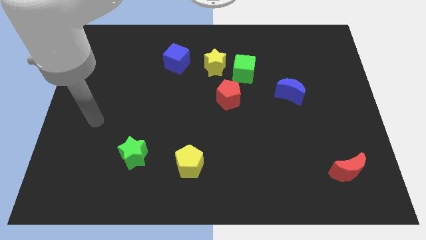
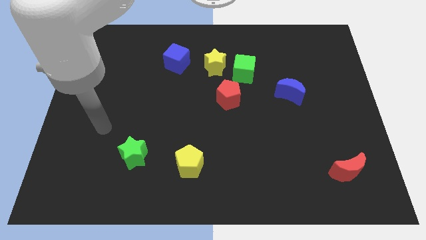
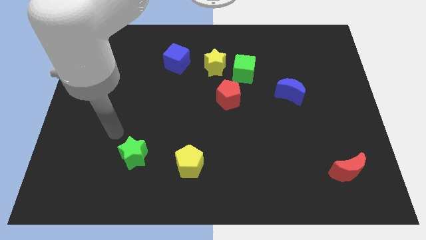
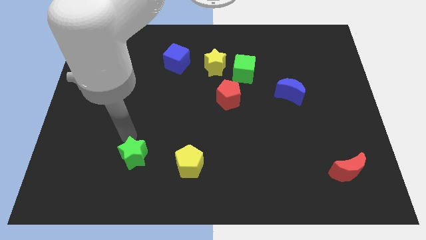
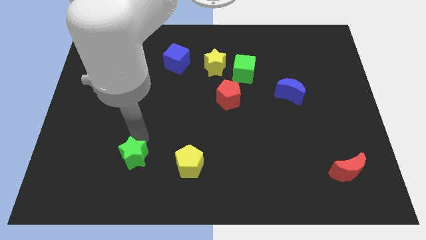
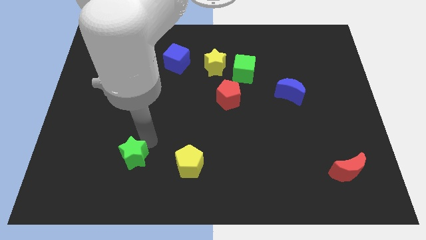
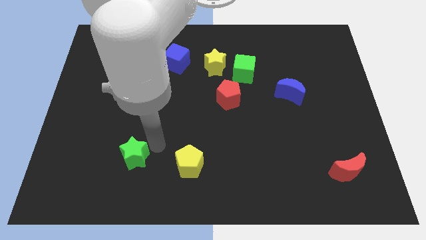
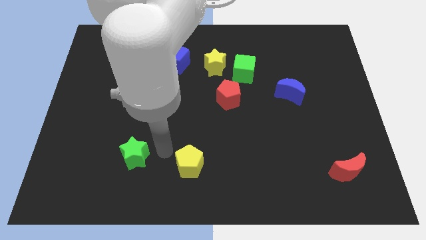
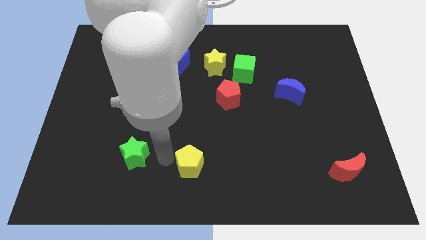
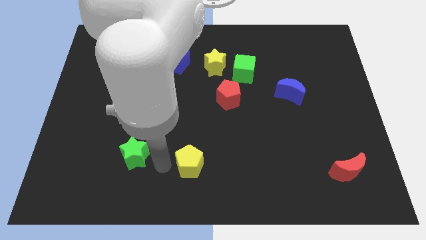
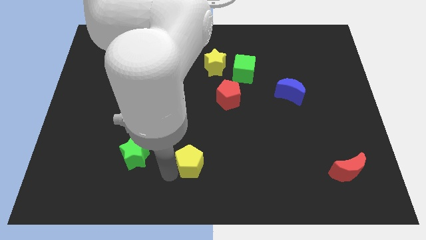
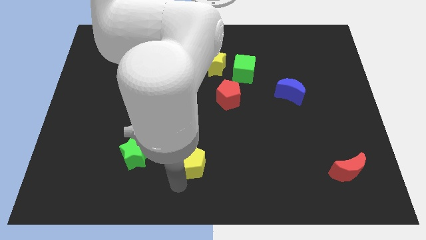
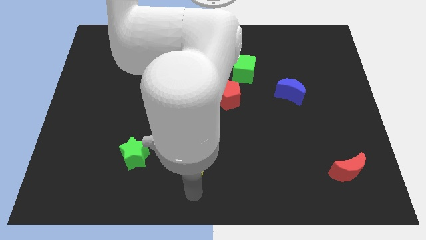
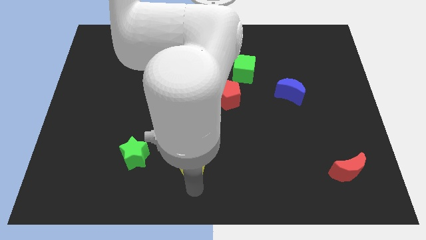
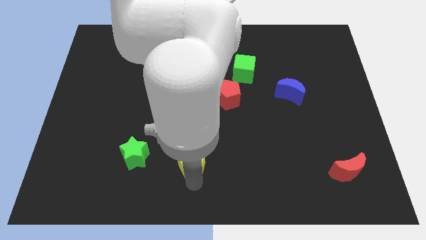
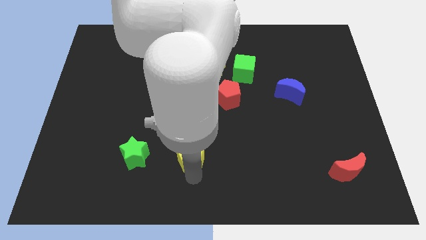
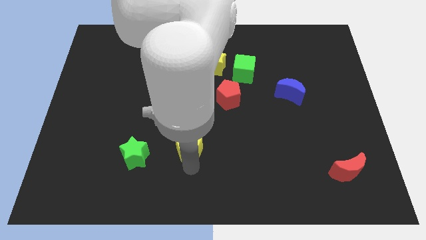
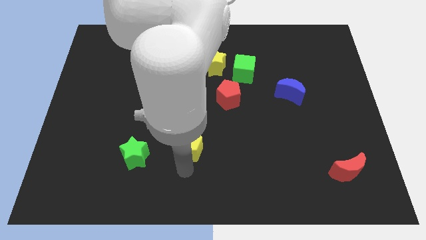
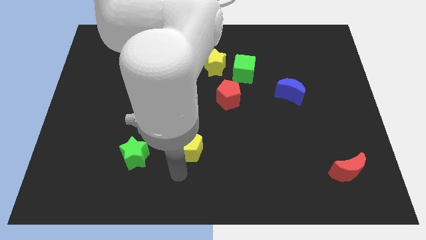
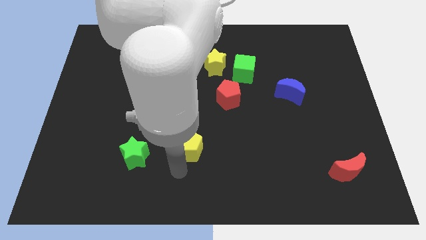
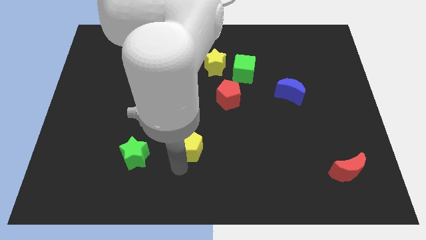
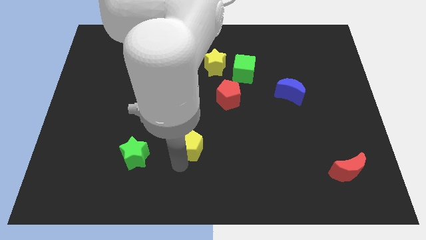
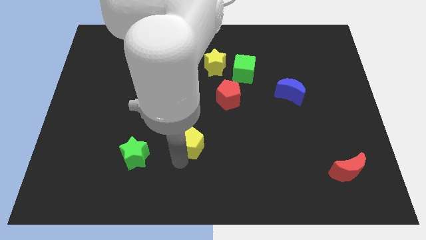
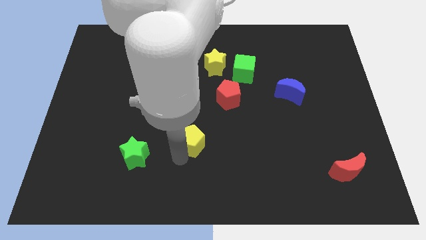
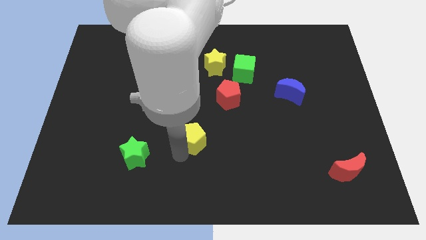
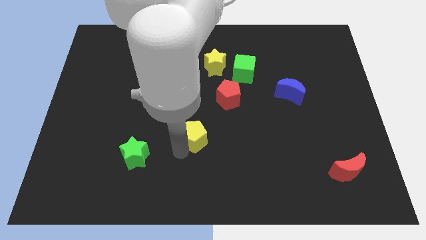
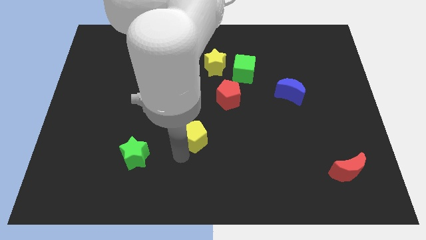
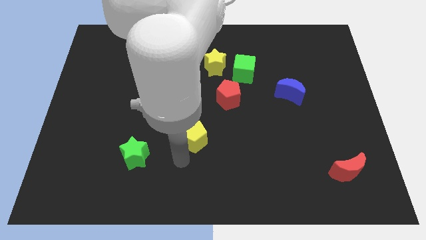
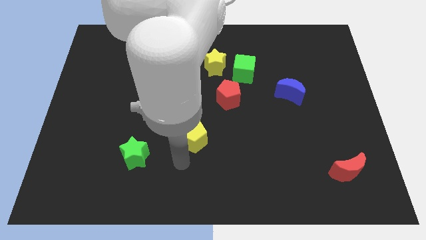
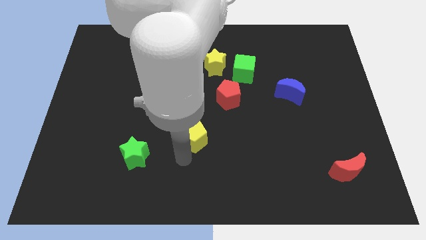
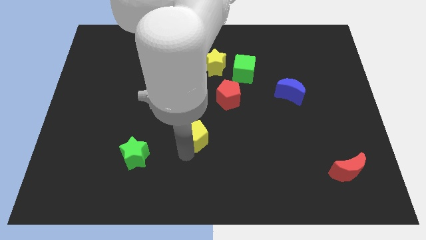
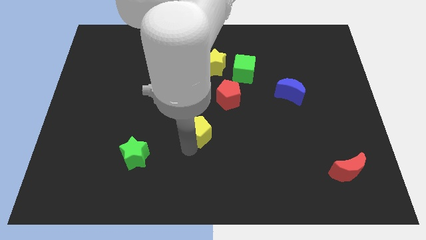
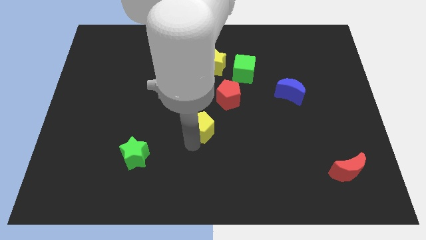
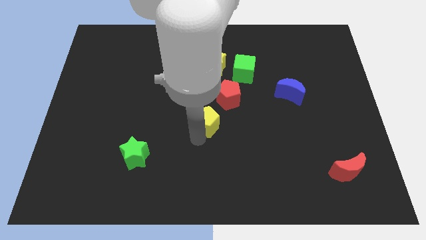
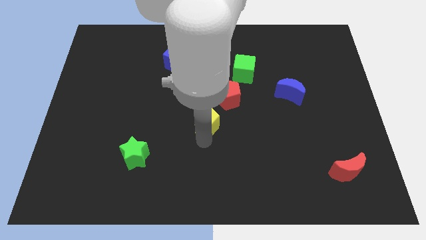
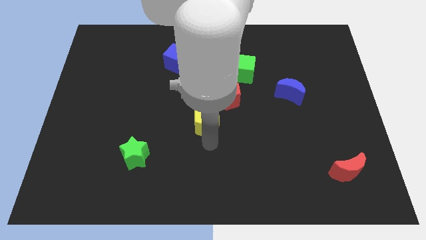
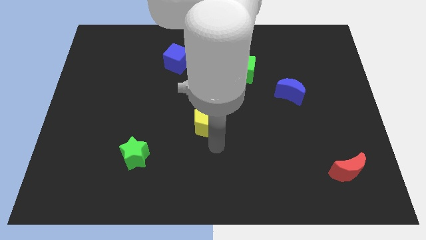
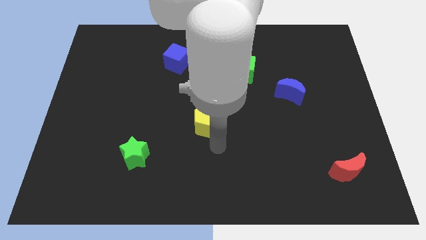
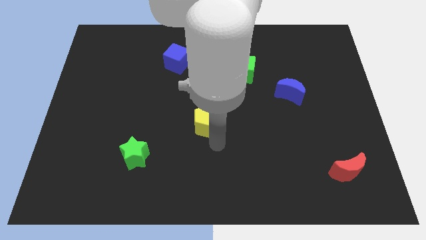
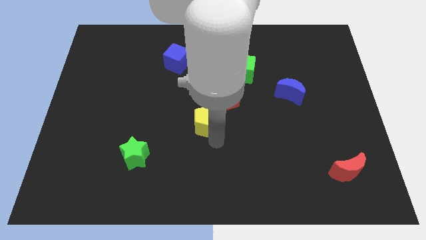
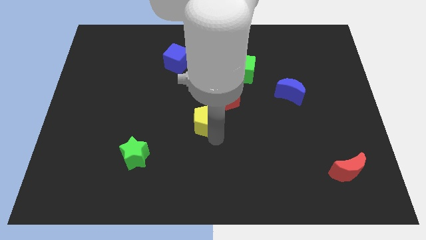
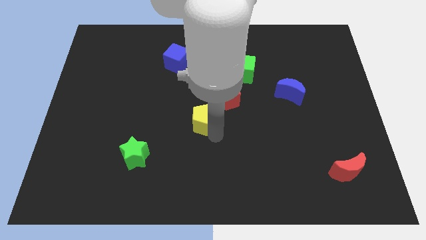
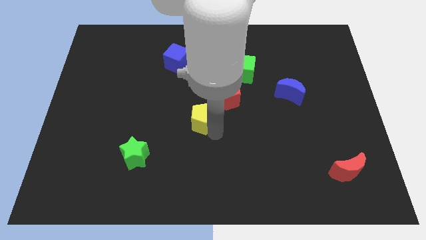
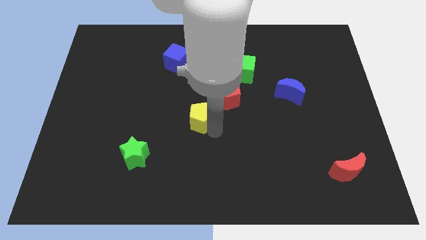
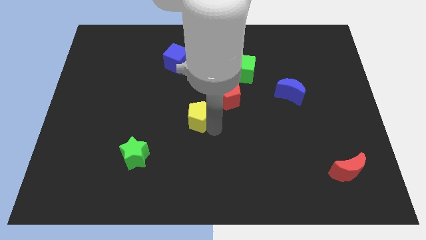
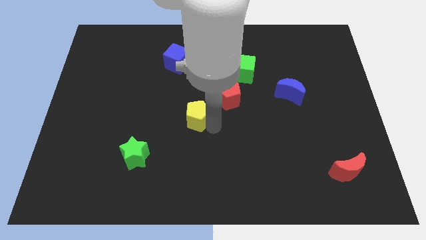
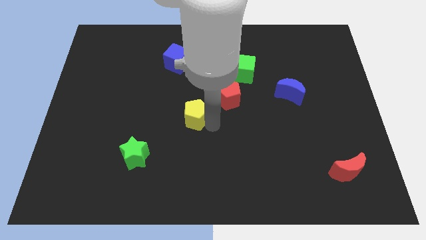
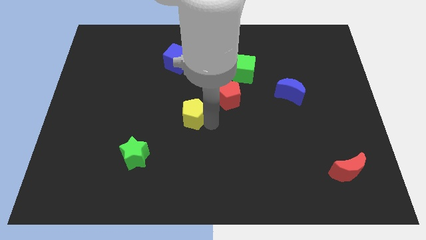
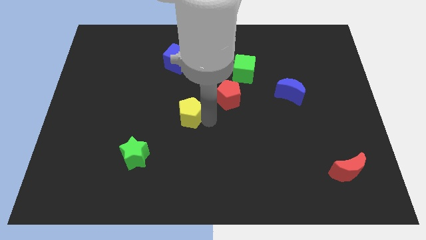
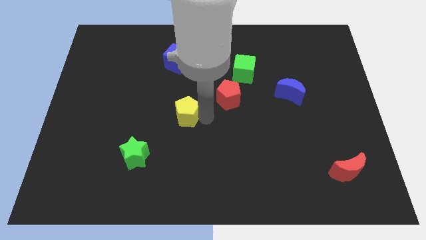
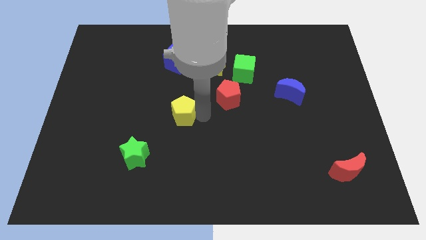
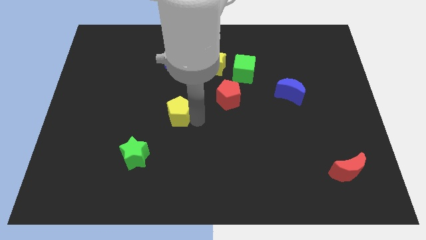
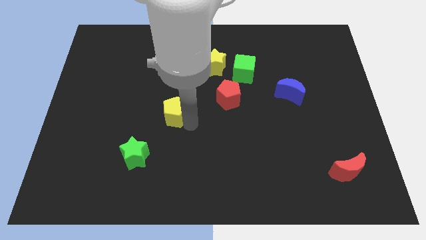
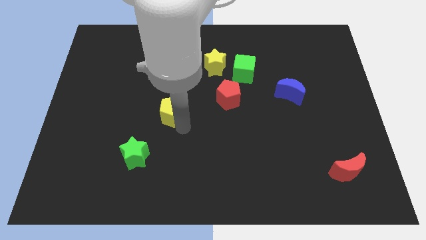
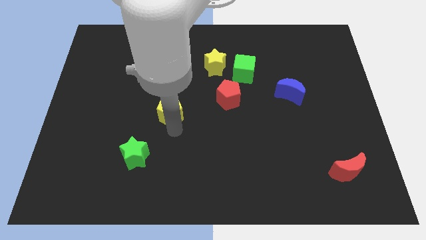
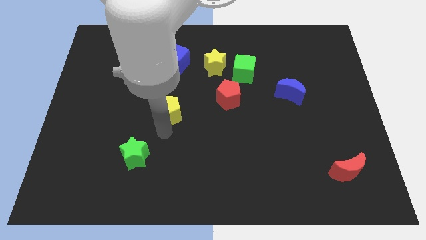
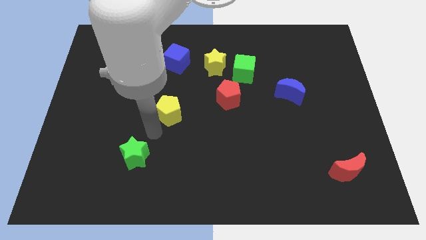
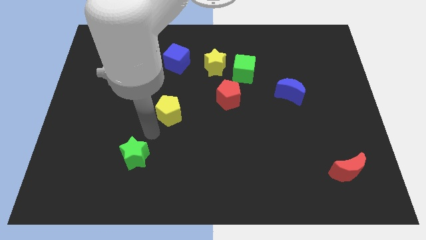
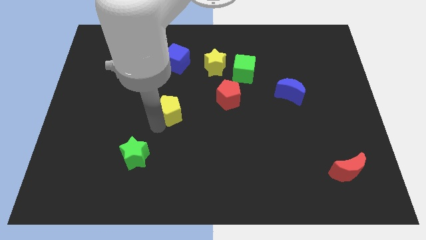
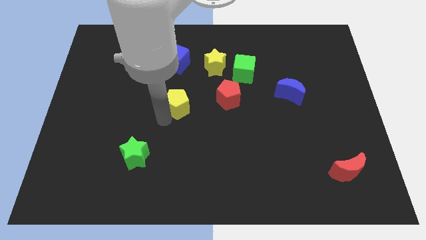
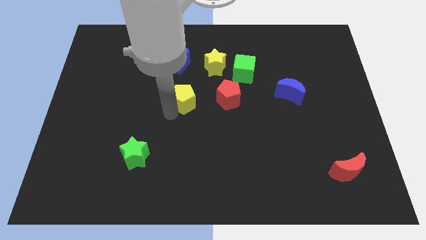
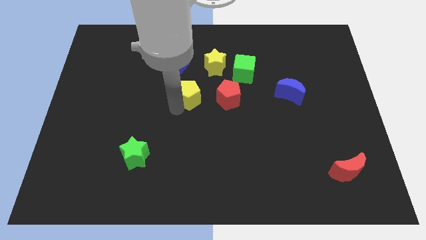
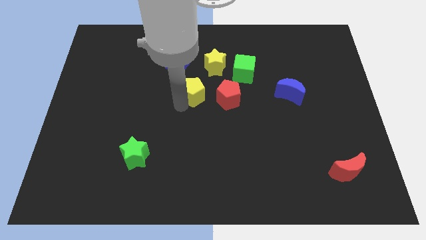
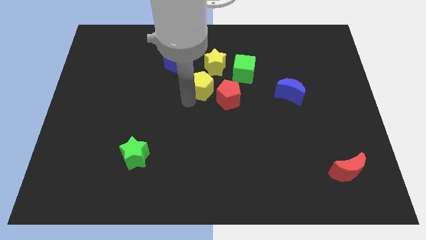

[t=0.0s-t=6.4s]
push the yellow pentagon upwards

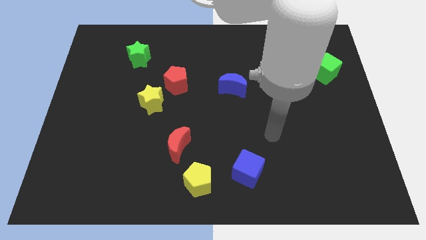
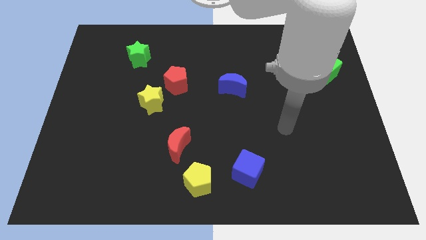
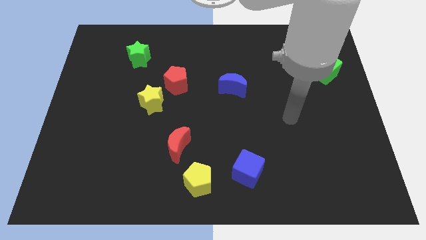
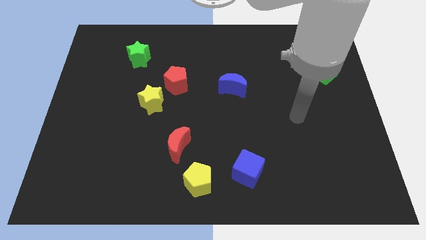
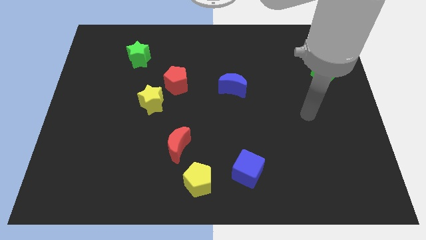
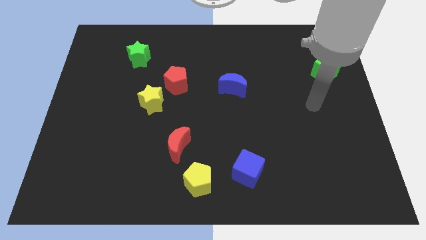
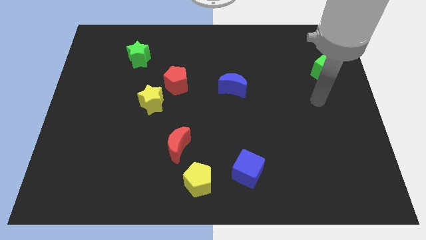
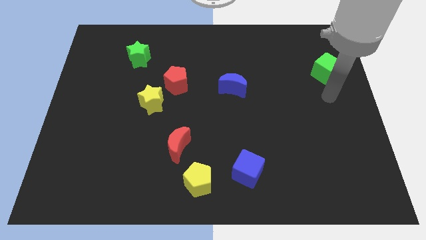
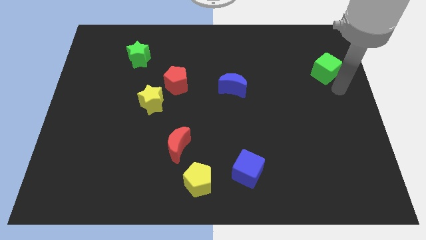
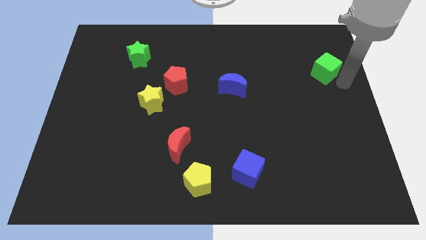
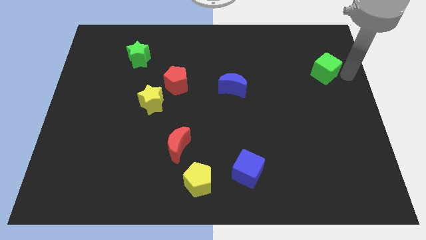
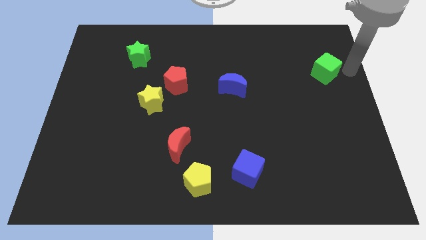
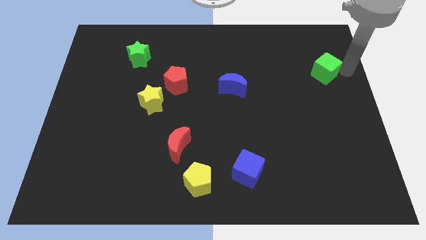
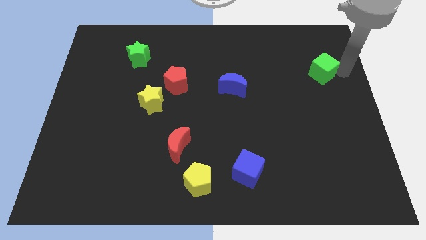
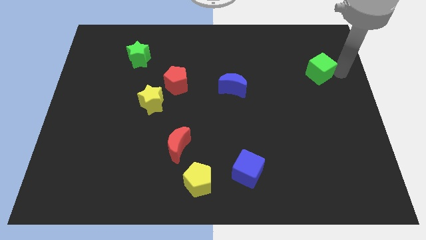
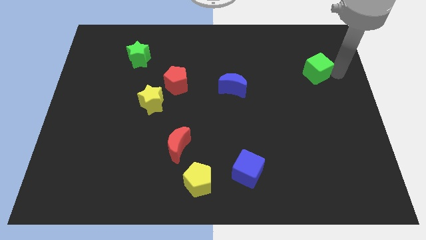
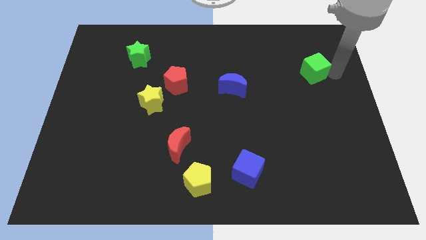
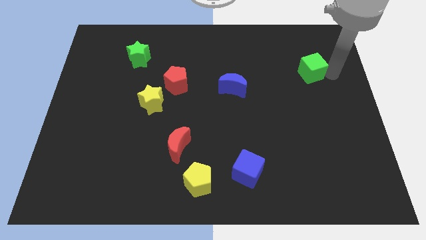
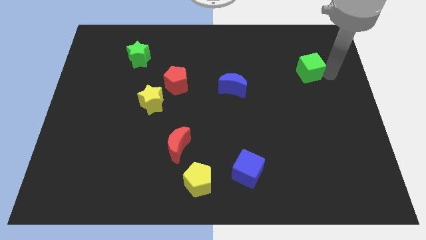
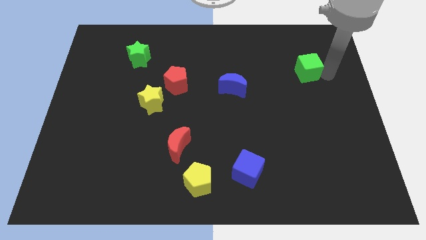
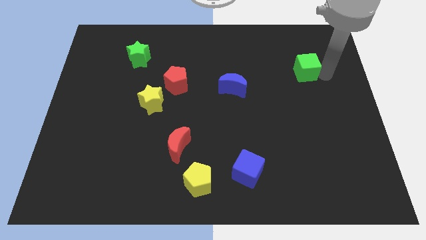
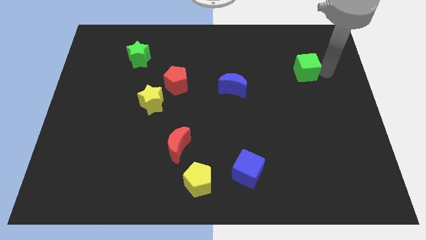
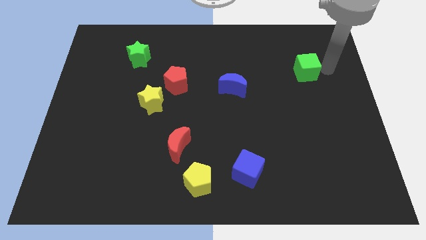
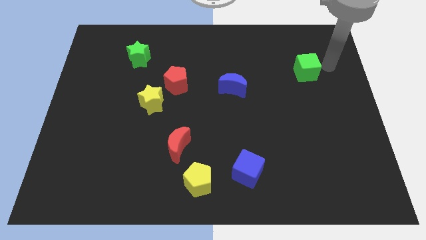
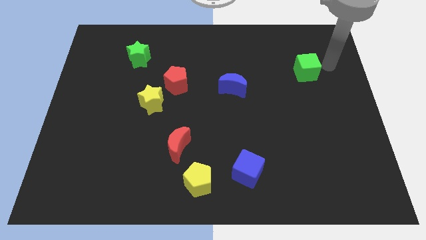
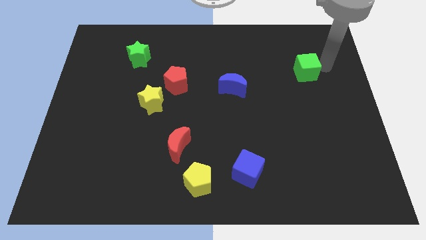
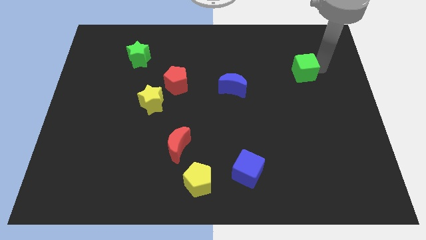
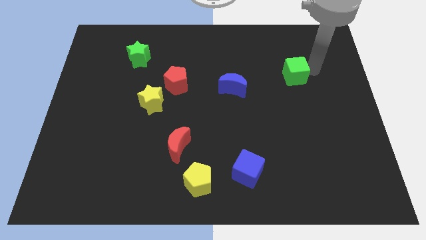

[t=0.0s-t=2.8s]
move the green cube a little to the left
